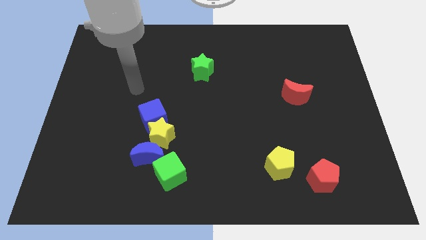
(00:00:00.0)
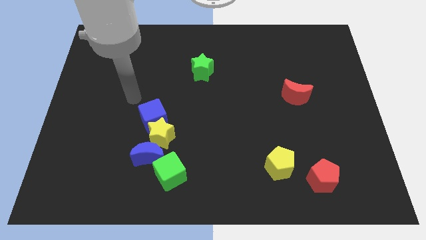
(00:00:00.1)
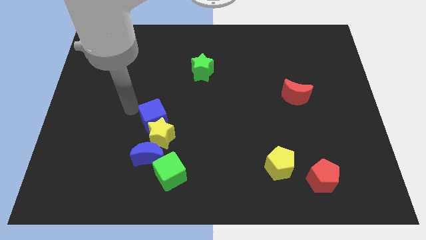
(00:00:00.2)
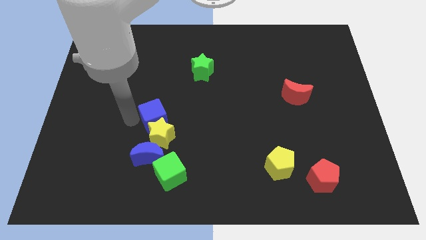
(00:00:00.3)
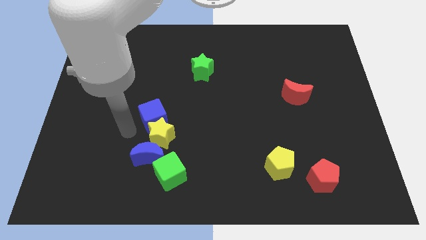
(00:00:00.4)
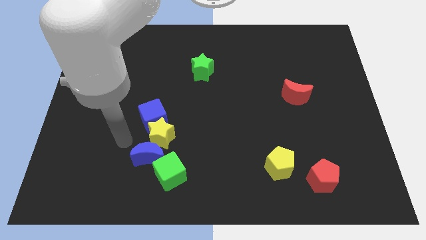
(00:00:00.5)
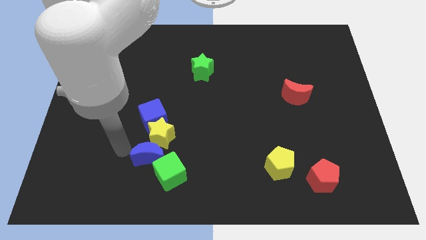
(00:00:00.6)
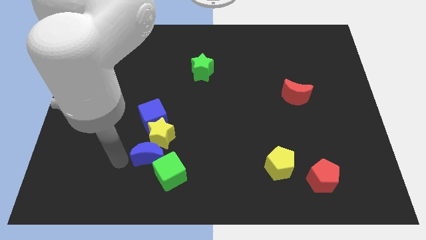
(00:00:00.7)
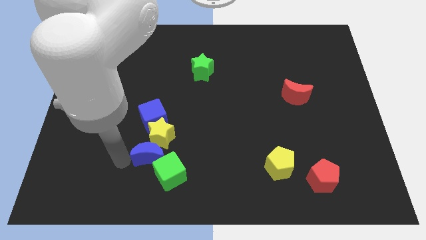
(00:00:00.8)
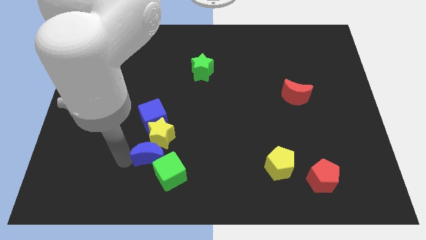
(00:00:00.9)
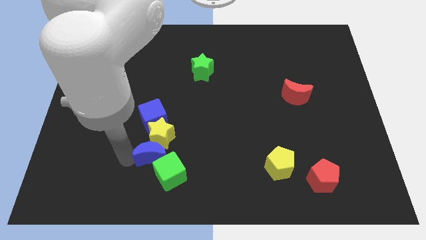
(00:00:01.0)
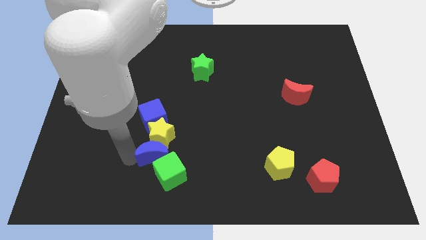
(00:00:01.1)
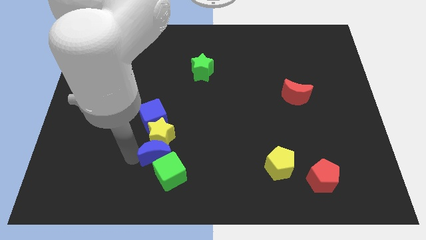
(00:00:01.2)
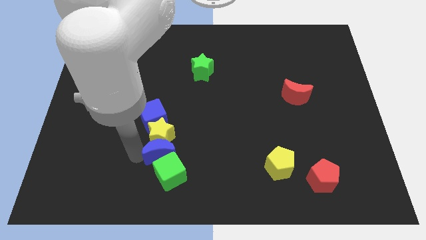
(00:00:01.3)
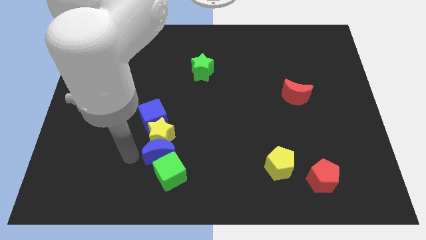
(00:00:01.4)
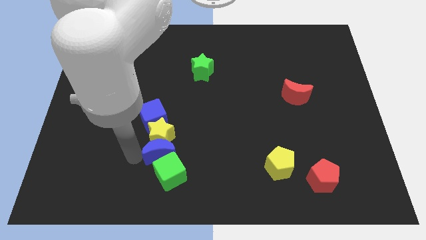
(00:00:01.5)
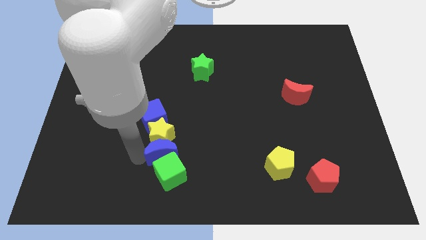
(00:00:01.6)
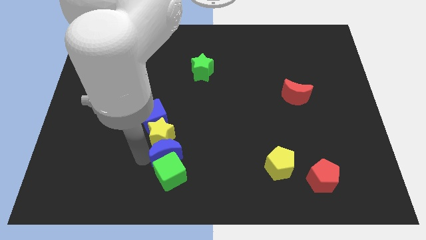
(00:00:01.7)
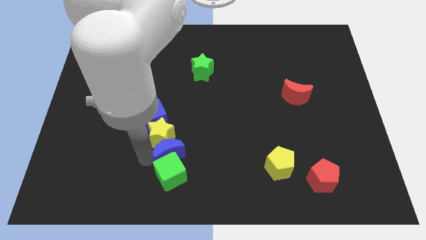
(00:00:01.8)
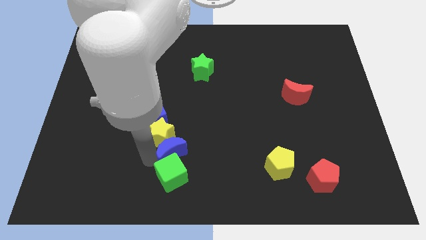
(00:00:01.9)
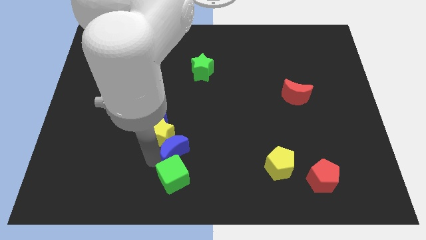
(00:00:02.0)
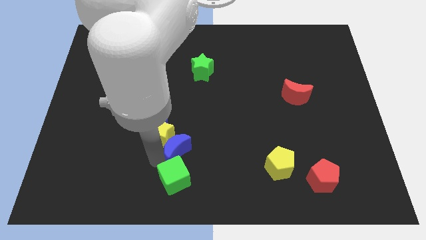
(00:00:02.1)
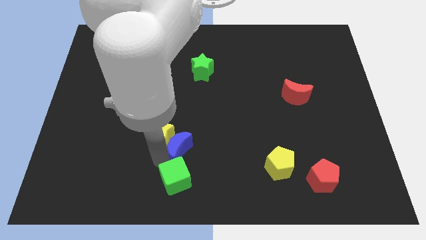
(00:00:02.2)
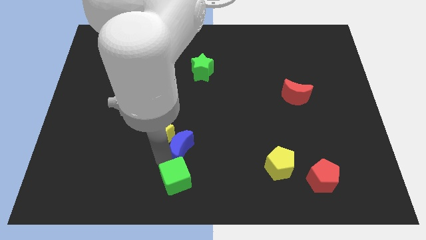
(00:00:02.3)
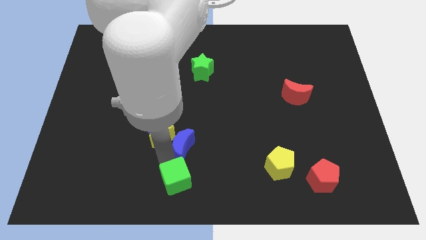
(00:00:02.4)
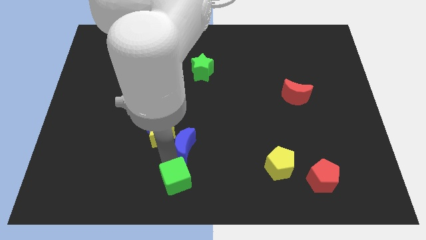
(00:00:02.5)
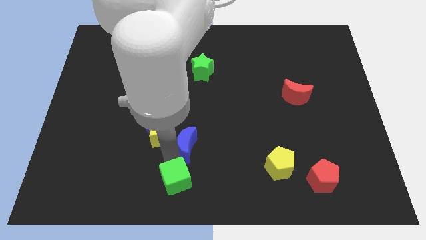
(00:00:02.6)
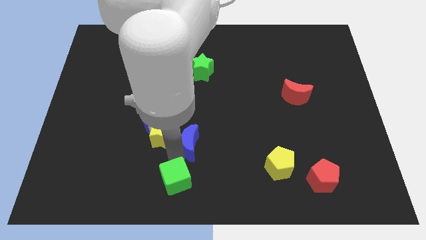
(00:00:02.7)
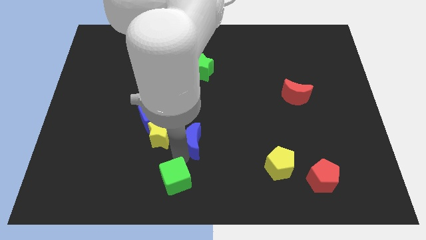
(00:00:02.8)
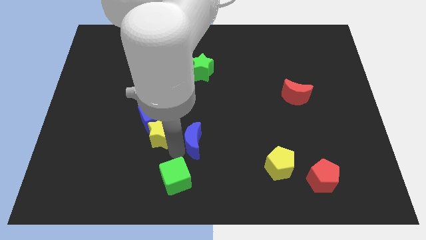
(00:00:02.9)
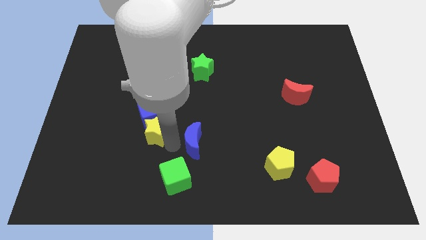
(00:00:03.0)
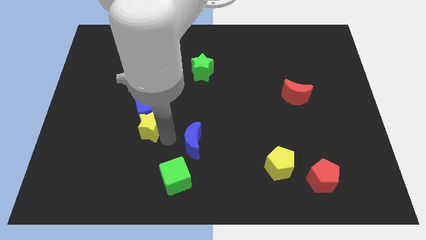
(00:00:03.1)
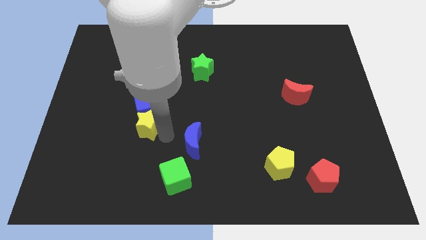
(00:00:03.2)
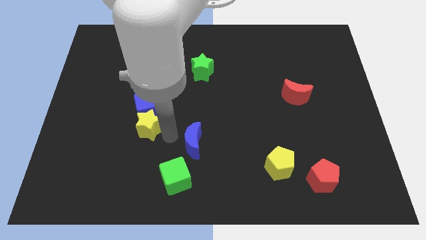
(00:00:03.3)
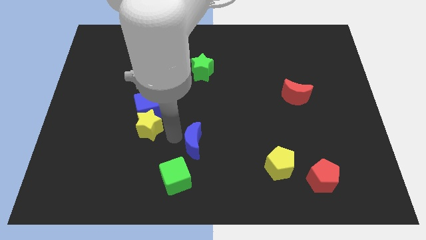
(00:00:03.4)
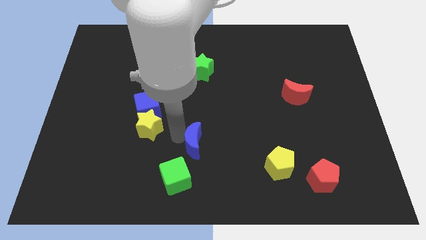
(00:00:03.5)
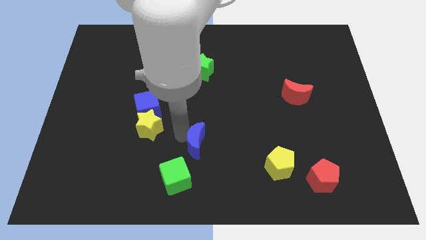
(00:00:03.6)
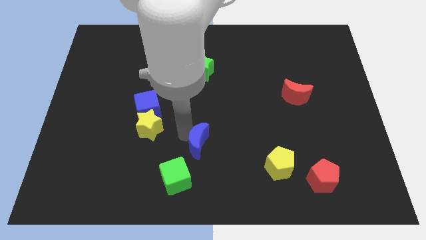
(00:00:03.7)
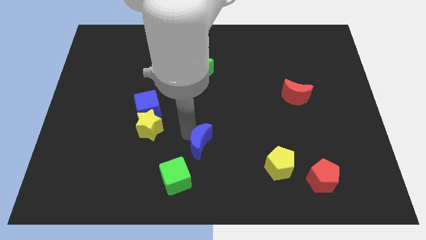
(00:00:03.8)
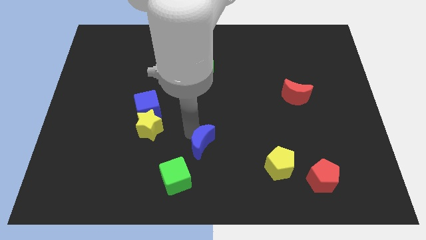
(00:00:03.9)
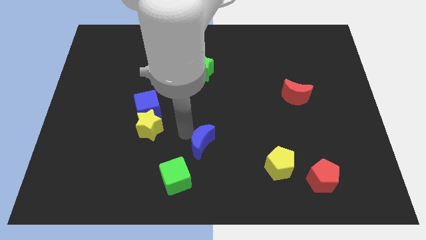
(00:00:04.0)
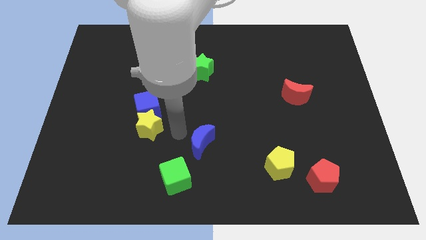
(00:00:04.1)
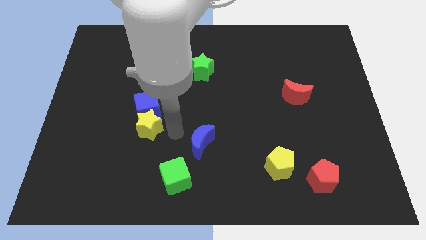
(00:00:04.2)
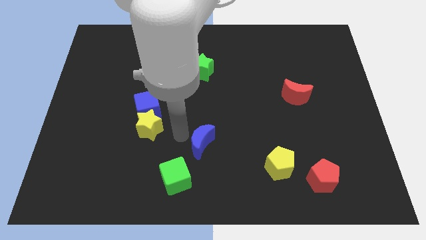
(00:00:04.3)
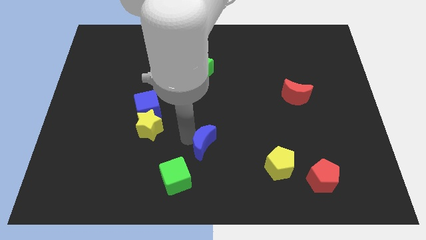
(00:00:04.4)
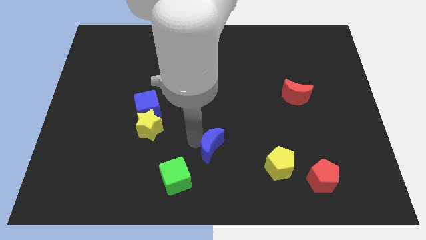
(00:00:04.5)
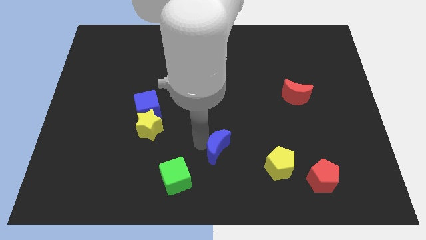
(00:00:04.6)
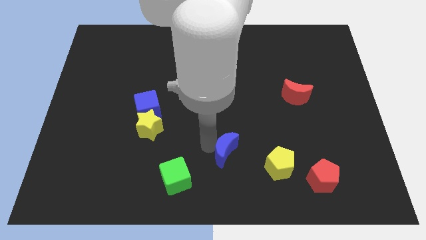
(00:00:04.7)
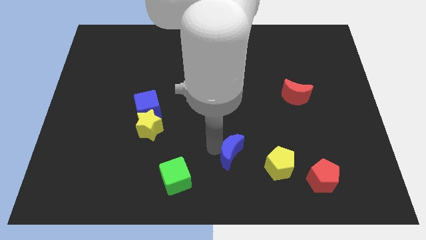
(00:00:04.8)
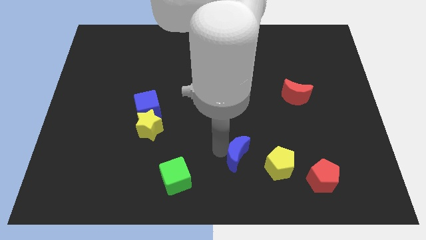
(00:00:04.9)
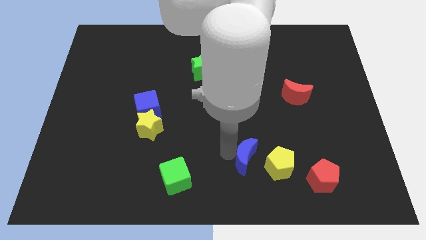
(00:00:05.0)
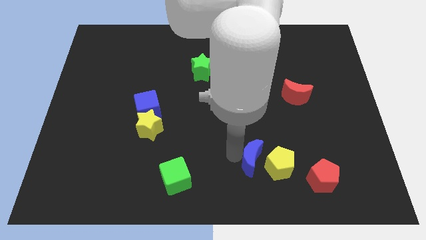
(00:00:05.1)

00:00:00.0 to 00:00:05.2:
slide the blue moon to the yellow pentagon

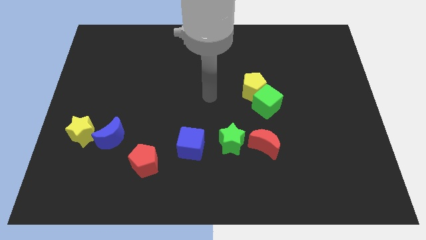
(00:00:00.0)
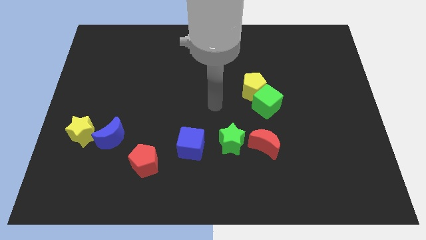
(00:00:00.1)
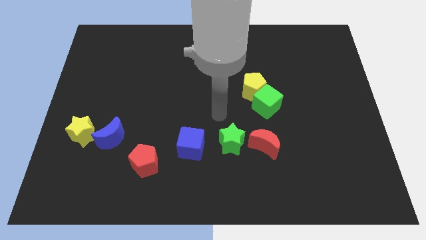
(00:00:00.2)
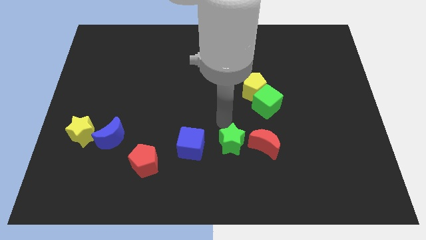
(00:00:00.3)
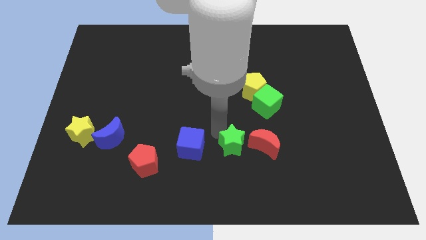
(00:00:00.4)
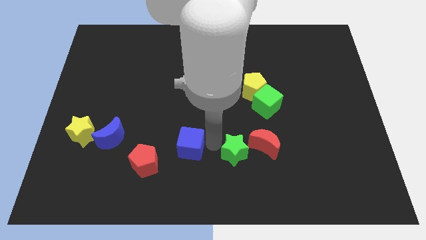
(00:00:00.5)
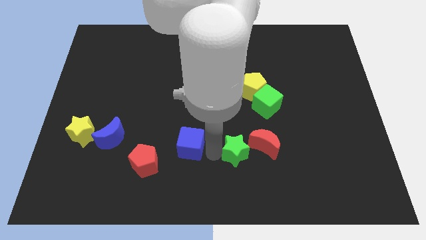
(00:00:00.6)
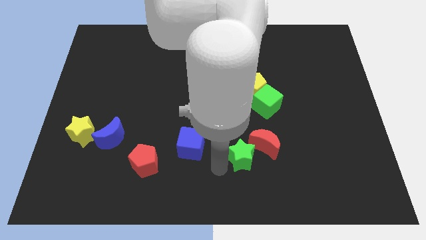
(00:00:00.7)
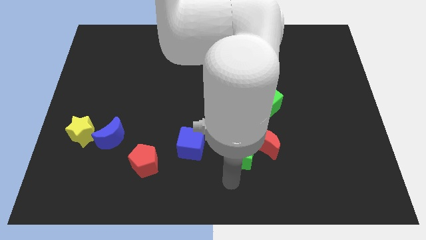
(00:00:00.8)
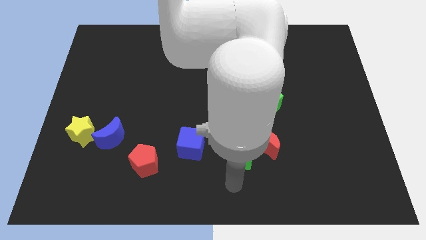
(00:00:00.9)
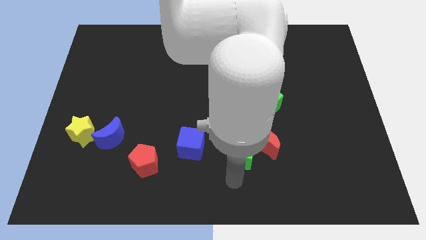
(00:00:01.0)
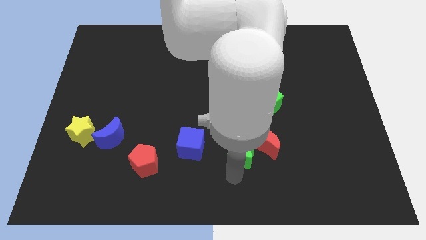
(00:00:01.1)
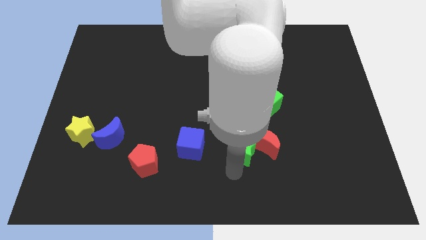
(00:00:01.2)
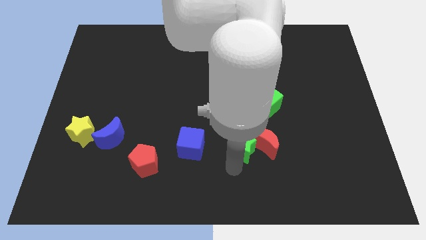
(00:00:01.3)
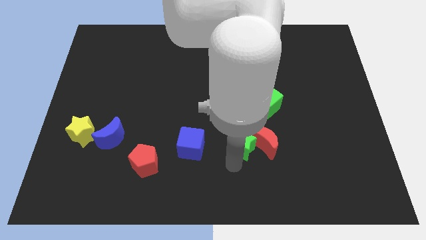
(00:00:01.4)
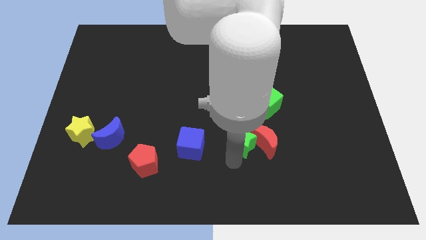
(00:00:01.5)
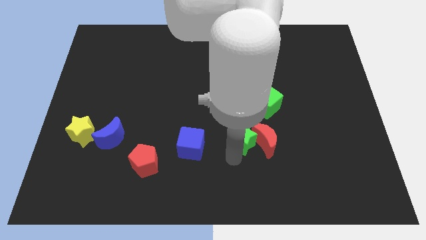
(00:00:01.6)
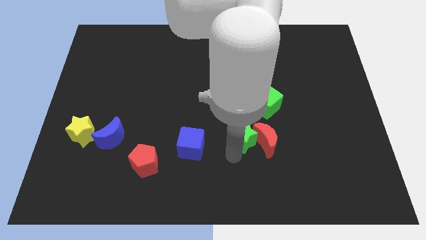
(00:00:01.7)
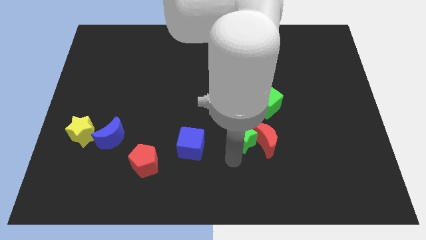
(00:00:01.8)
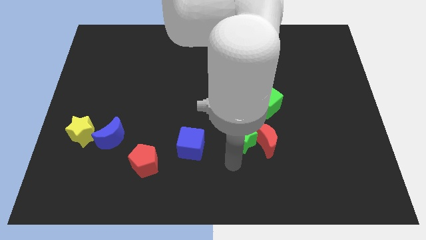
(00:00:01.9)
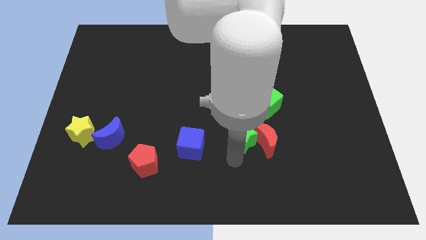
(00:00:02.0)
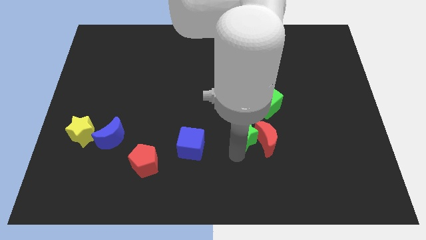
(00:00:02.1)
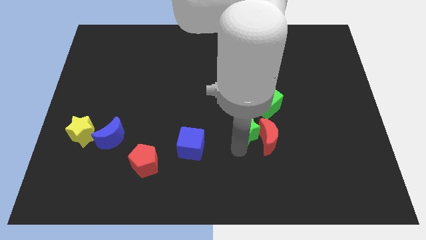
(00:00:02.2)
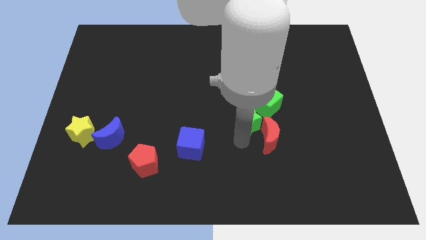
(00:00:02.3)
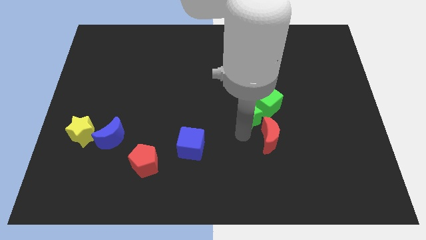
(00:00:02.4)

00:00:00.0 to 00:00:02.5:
slide the green star next to the green cube

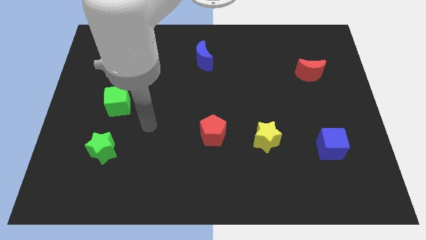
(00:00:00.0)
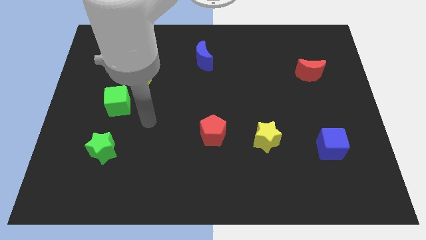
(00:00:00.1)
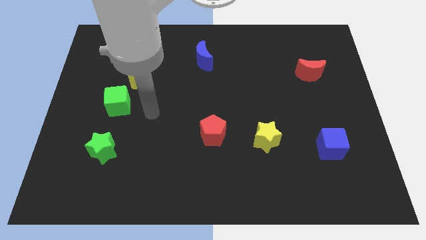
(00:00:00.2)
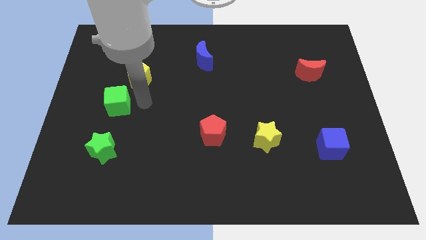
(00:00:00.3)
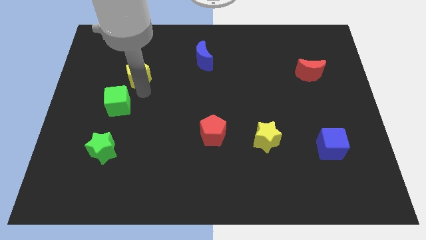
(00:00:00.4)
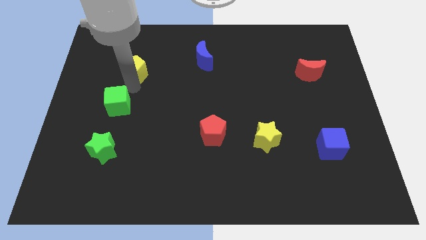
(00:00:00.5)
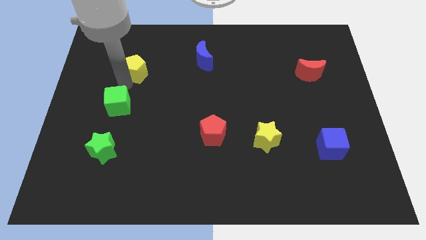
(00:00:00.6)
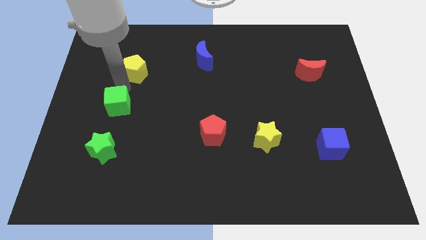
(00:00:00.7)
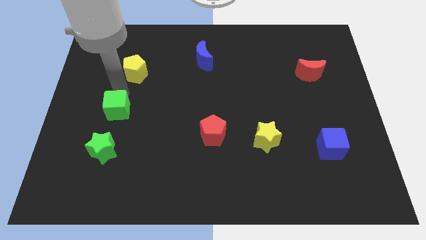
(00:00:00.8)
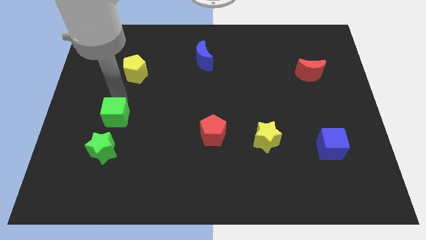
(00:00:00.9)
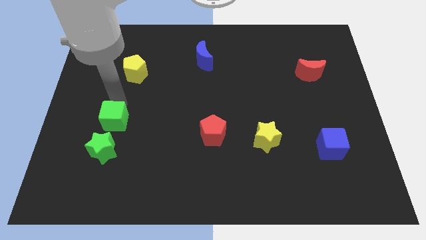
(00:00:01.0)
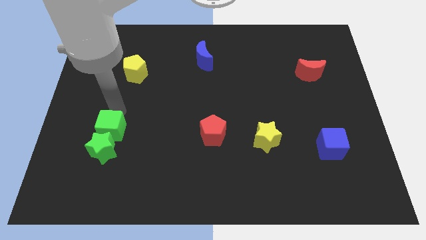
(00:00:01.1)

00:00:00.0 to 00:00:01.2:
put the green cube next to the green star
